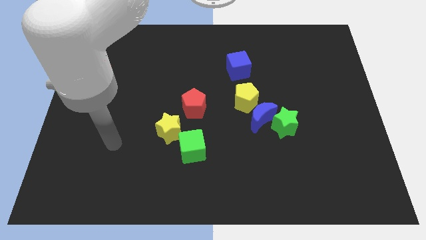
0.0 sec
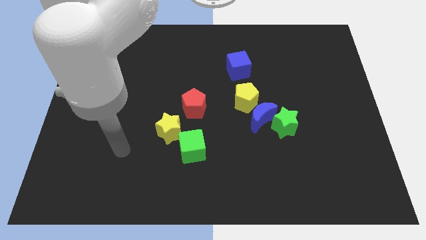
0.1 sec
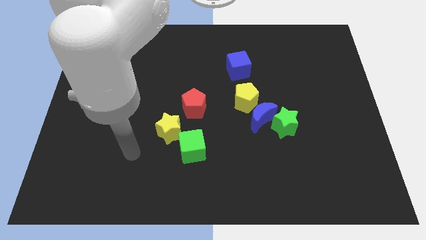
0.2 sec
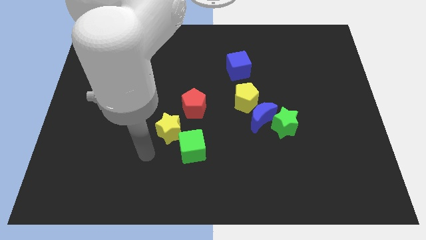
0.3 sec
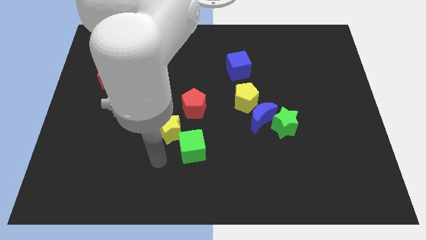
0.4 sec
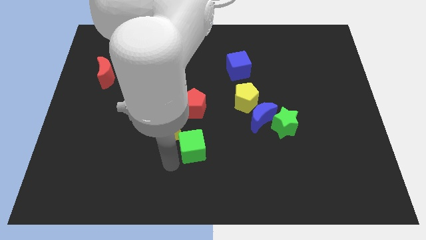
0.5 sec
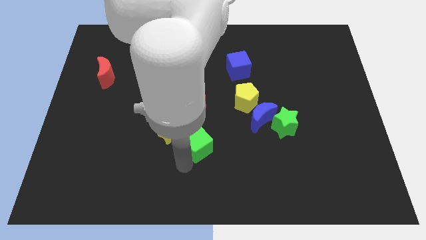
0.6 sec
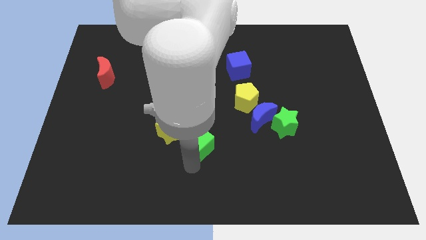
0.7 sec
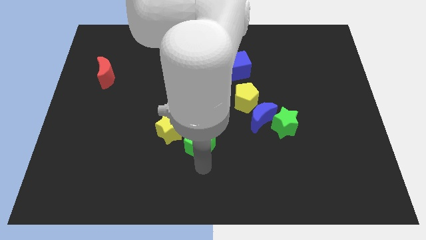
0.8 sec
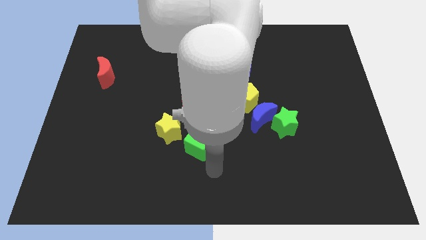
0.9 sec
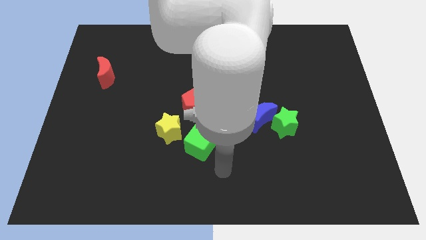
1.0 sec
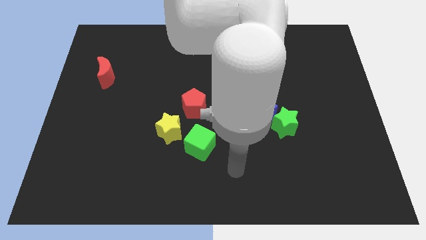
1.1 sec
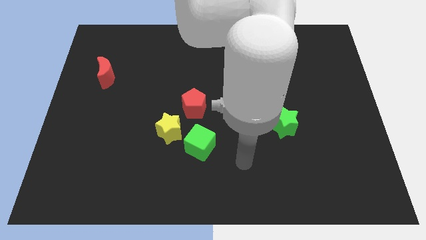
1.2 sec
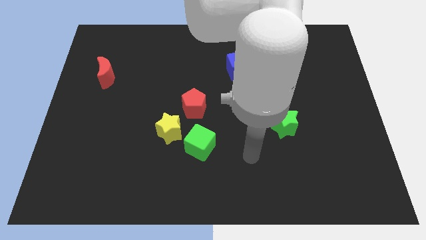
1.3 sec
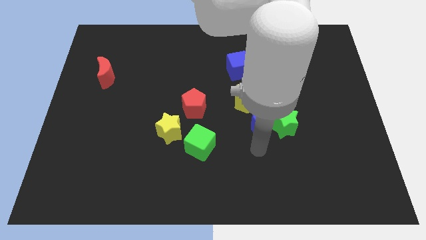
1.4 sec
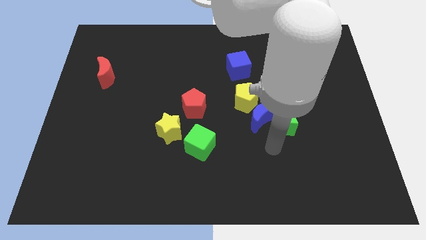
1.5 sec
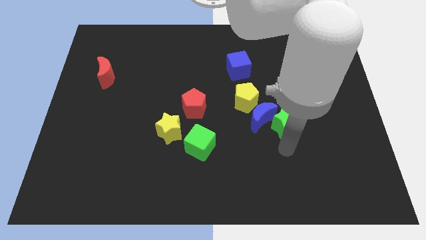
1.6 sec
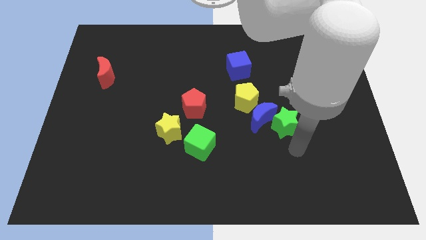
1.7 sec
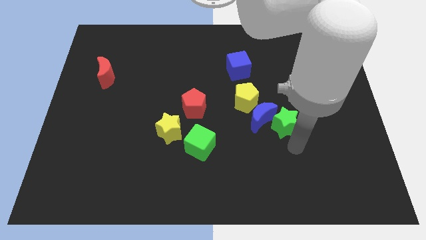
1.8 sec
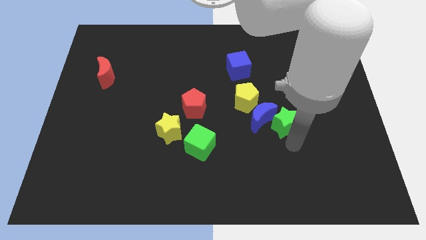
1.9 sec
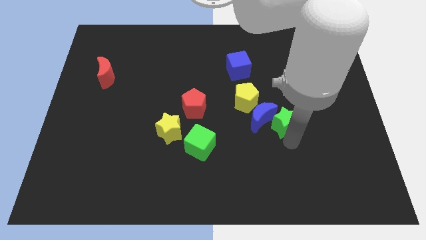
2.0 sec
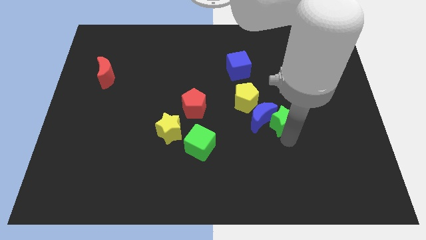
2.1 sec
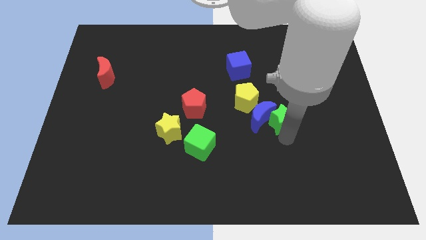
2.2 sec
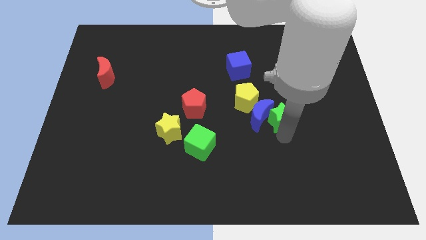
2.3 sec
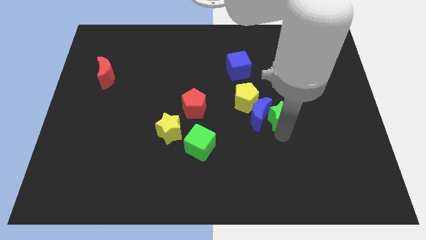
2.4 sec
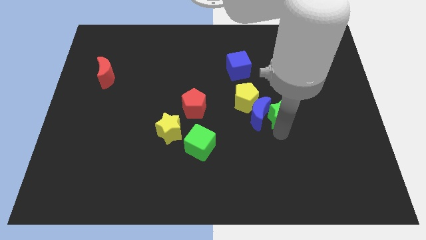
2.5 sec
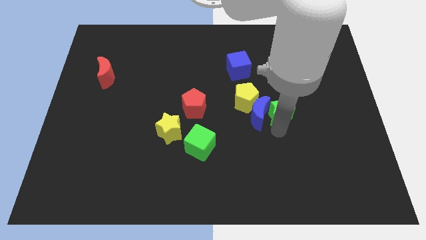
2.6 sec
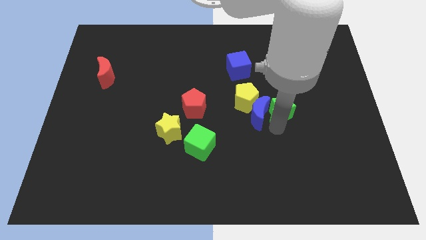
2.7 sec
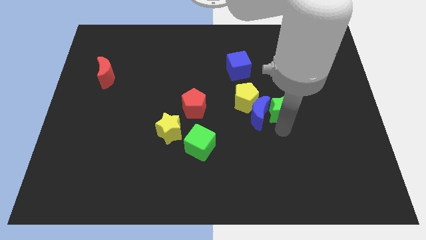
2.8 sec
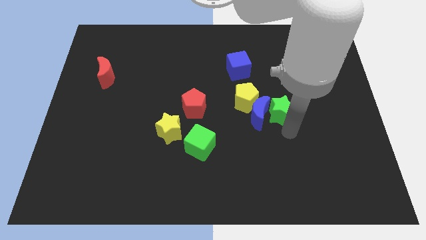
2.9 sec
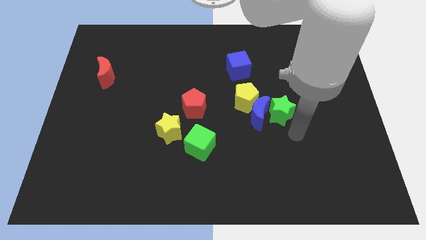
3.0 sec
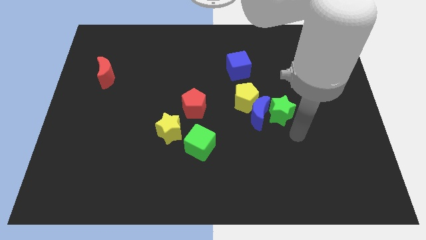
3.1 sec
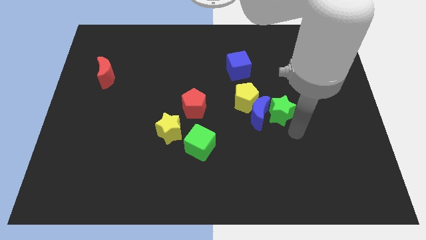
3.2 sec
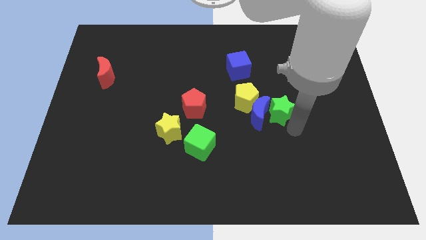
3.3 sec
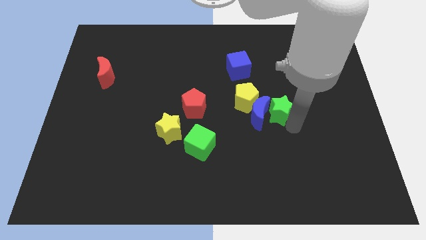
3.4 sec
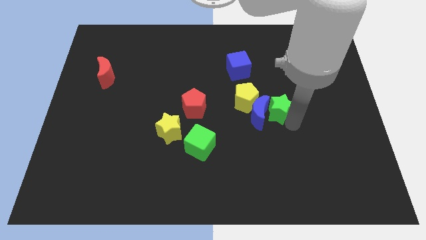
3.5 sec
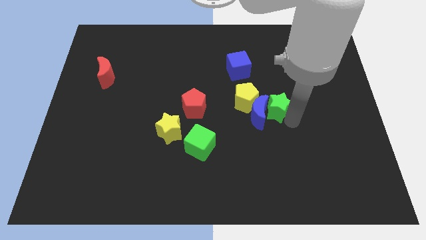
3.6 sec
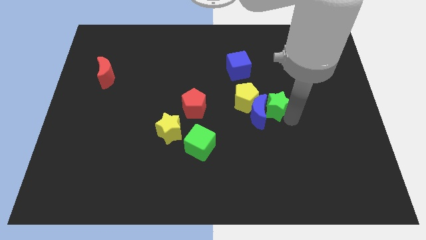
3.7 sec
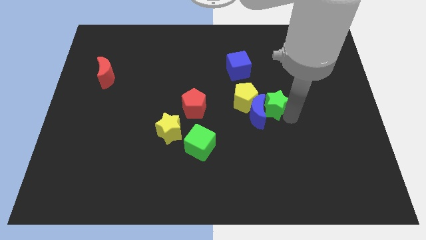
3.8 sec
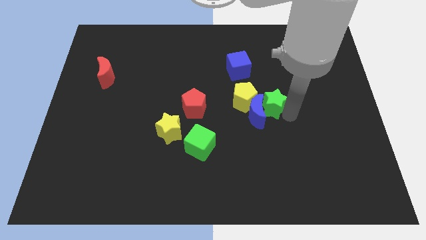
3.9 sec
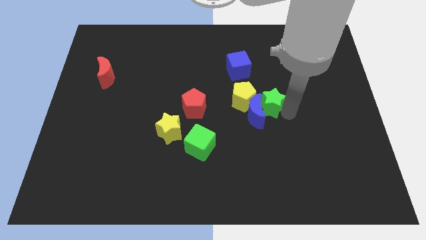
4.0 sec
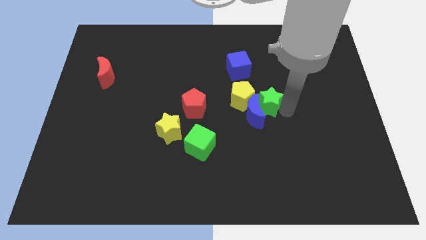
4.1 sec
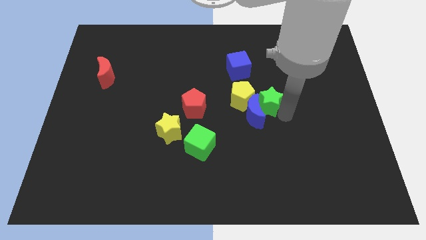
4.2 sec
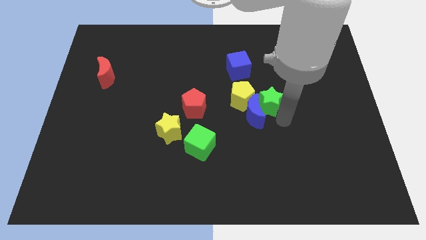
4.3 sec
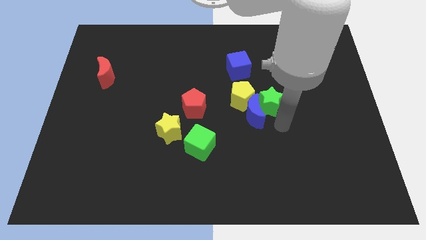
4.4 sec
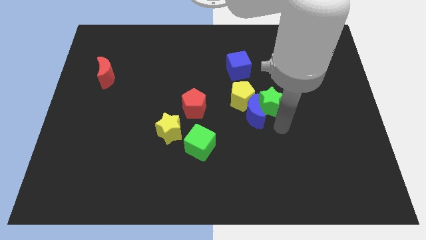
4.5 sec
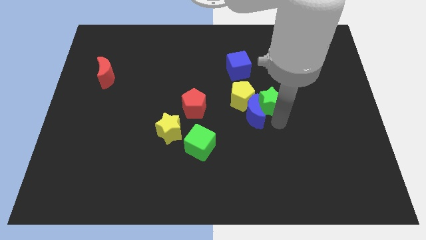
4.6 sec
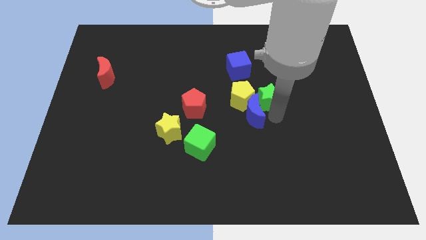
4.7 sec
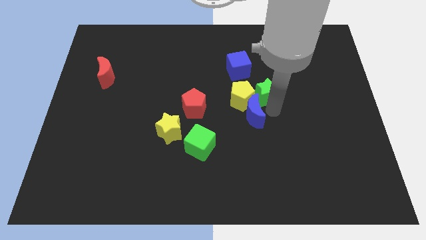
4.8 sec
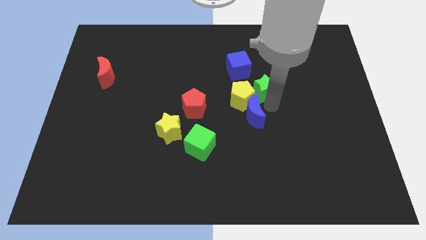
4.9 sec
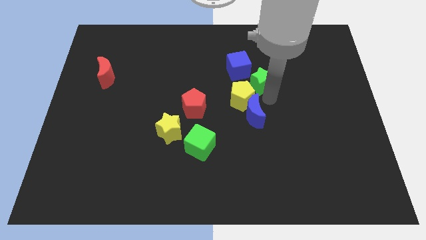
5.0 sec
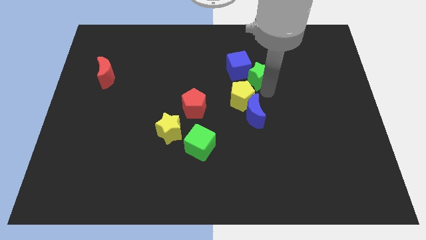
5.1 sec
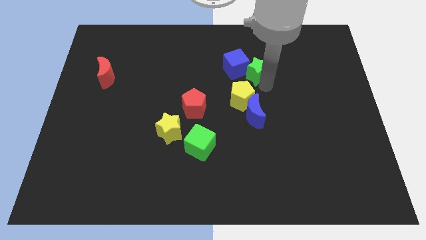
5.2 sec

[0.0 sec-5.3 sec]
put the green star close to the blue cube
